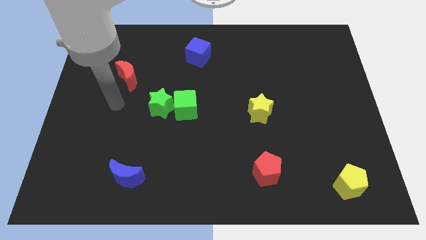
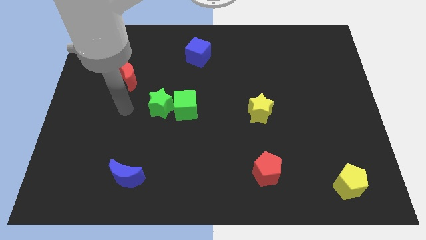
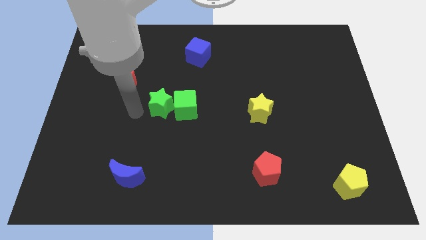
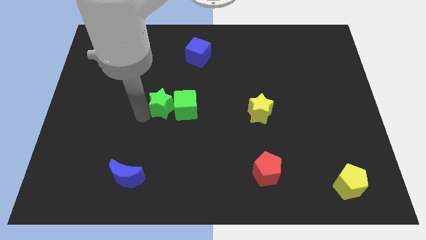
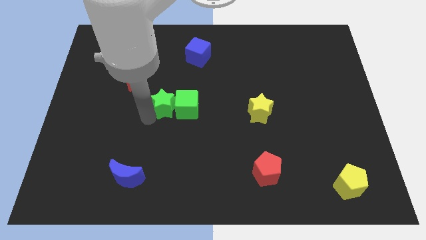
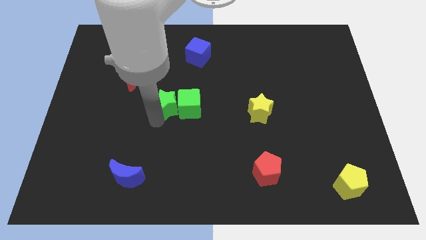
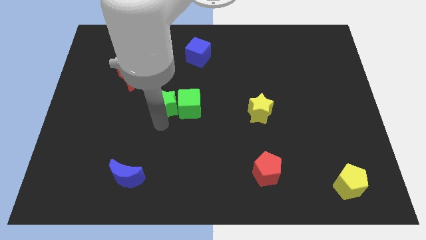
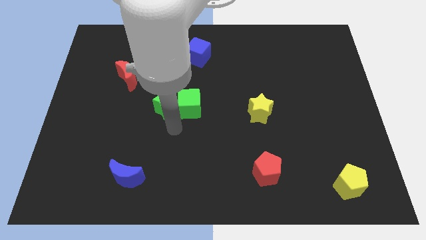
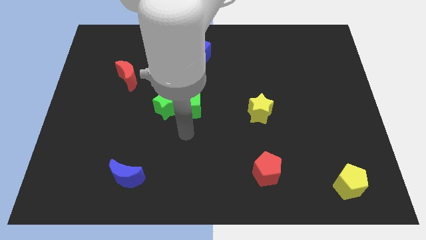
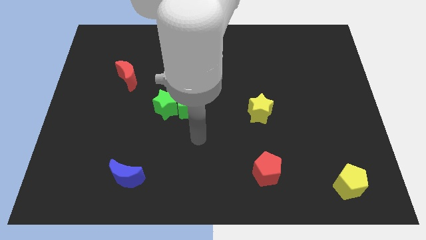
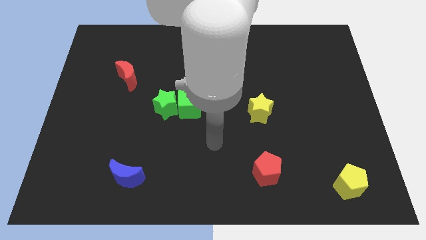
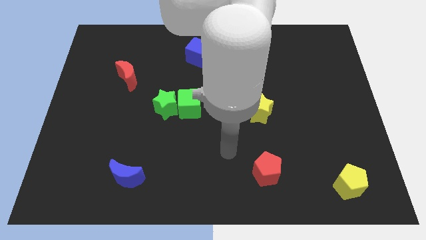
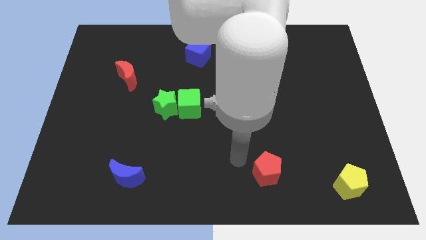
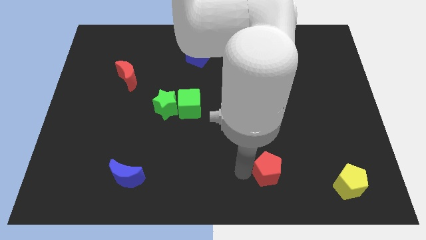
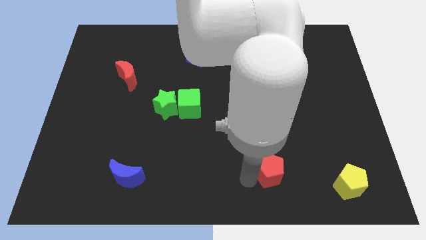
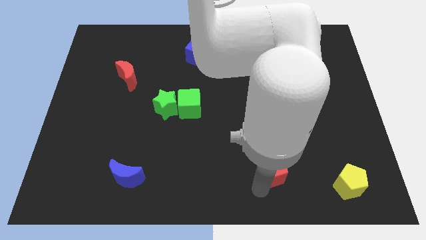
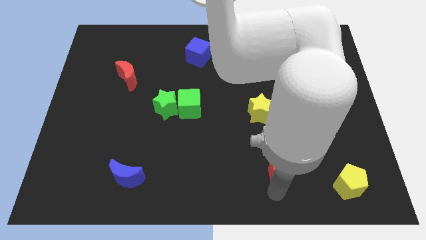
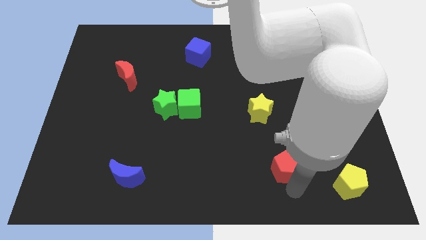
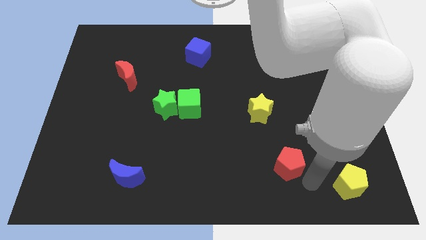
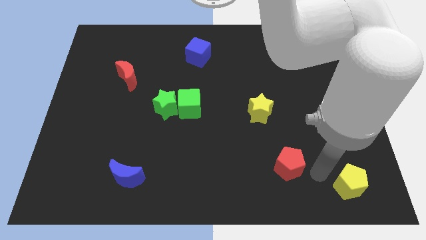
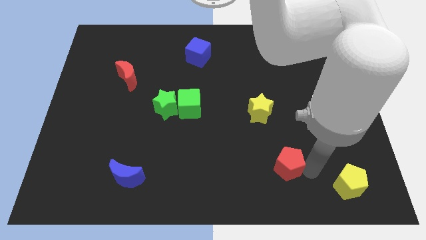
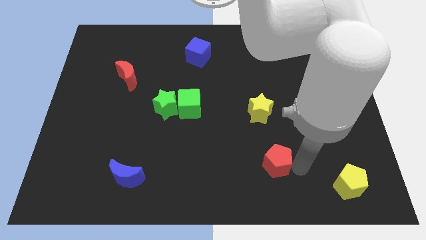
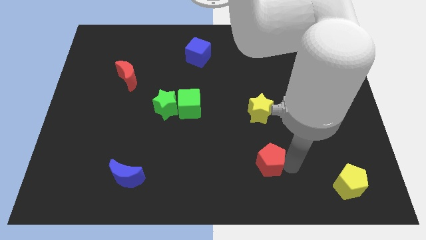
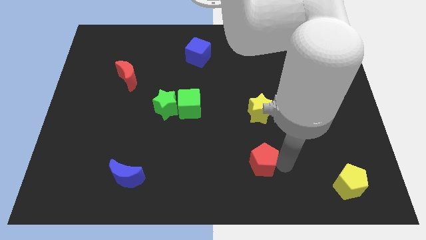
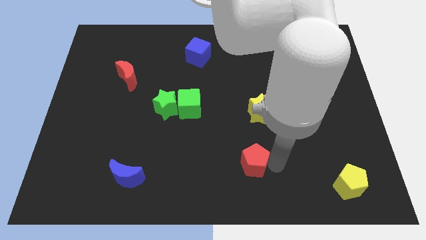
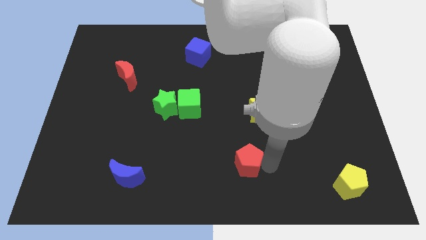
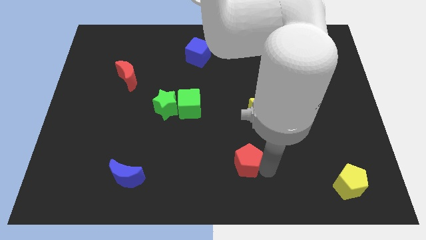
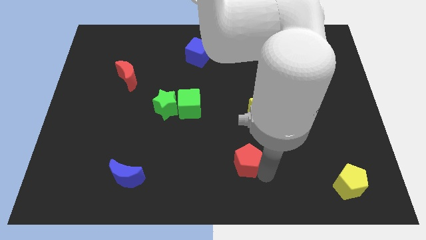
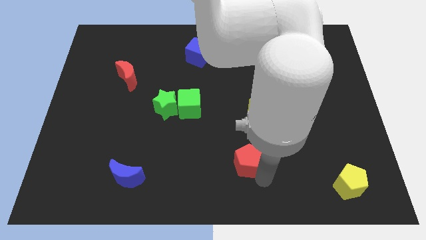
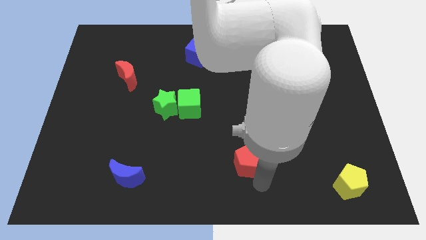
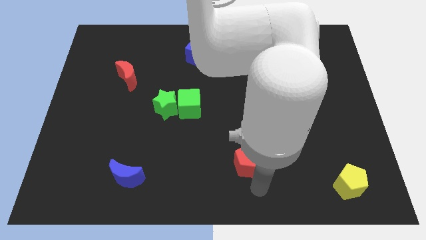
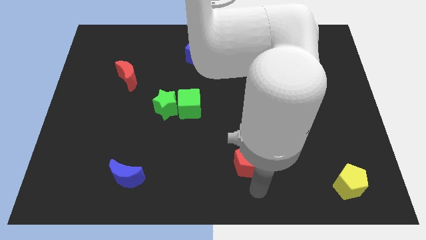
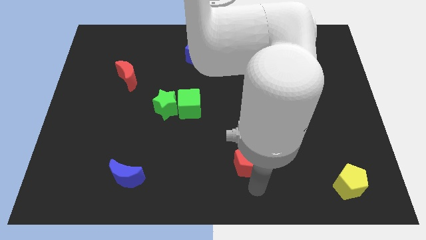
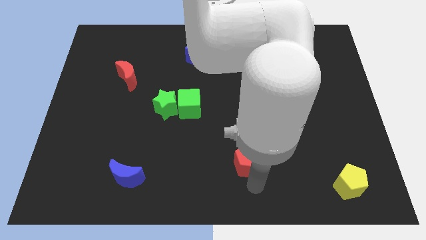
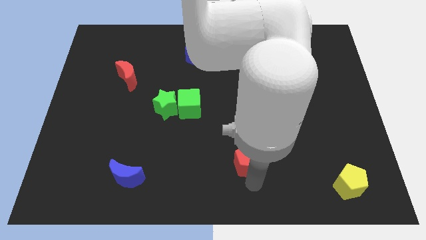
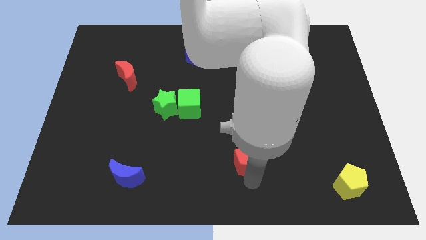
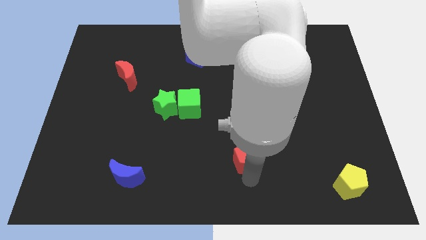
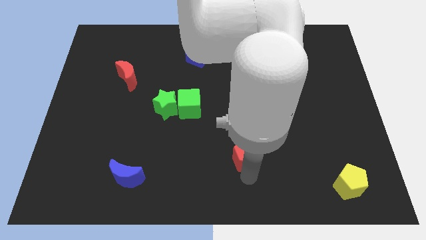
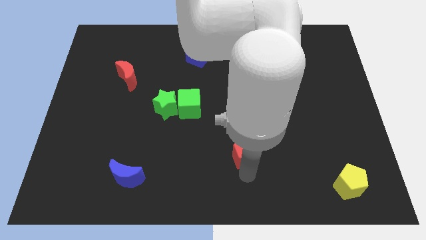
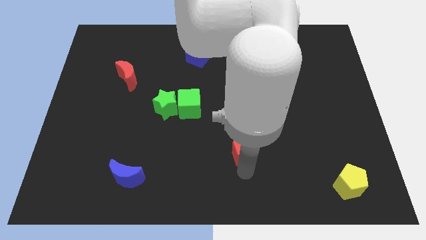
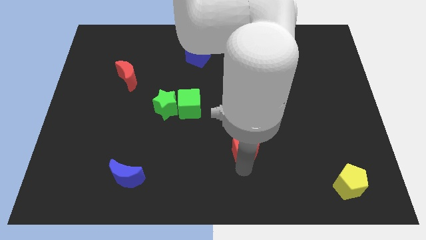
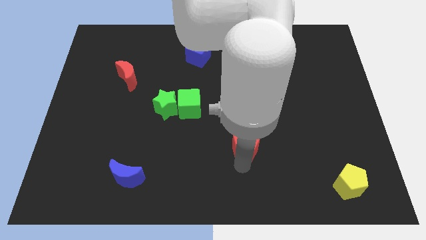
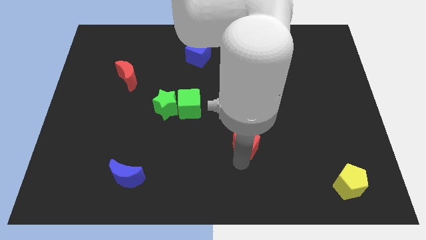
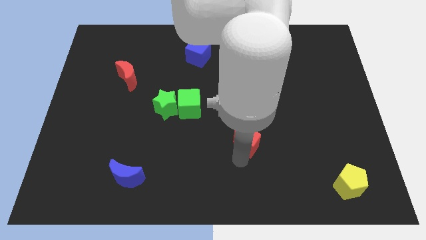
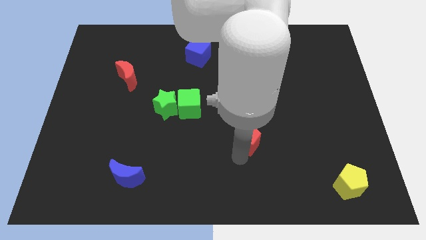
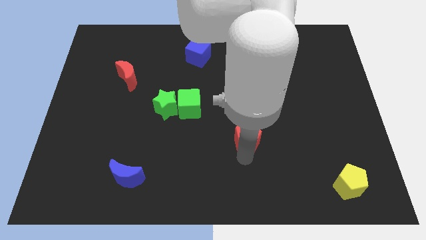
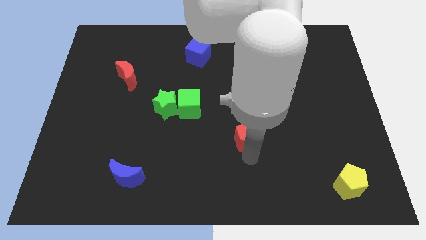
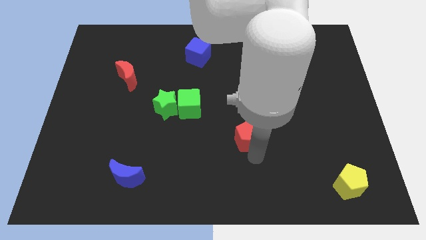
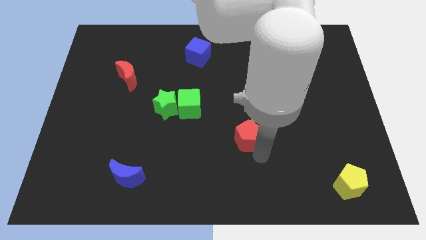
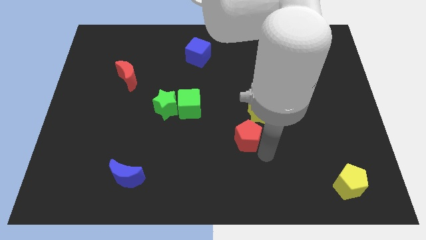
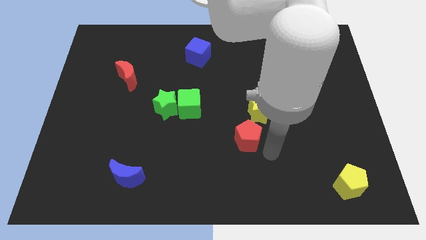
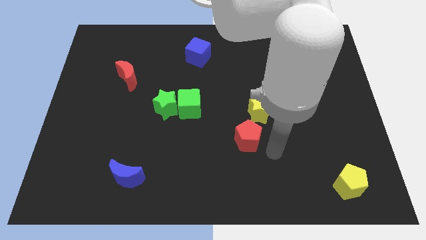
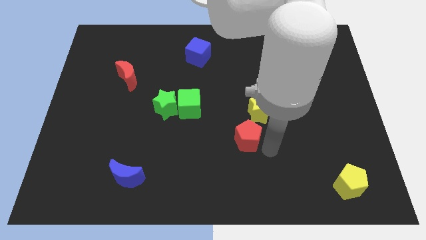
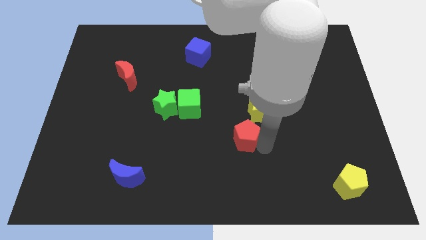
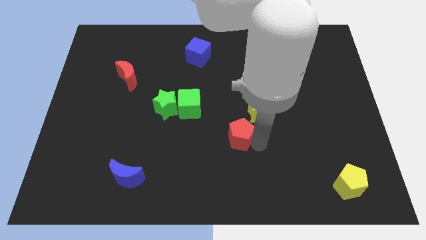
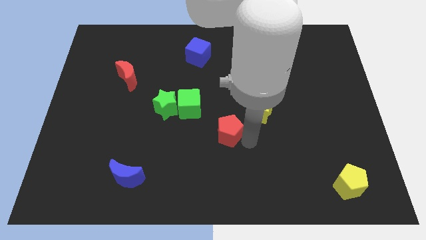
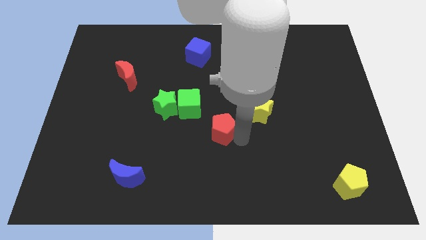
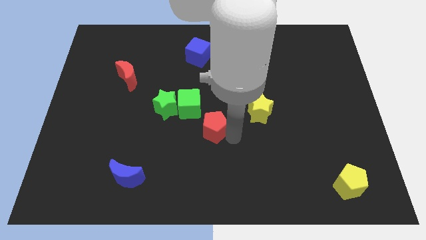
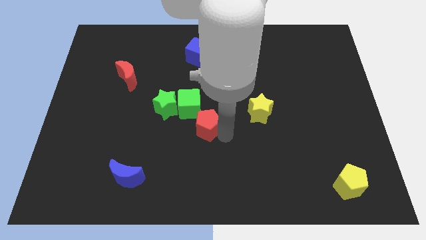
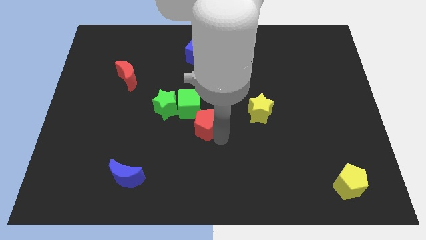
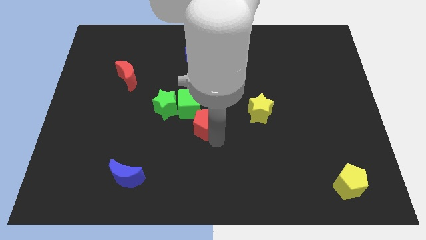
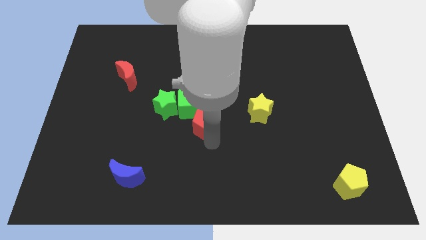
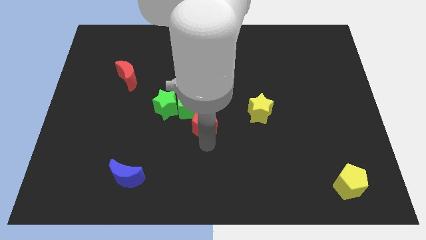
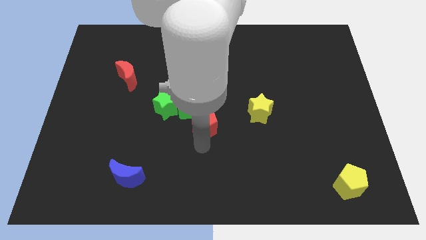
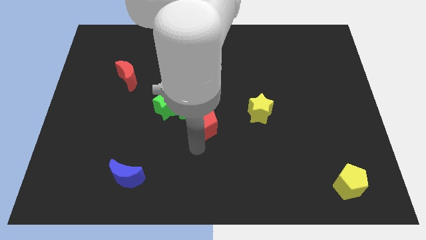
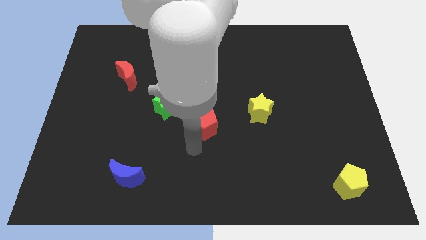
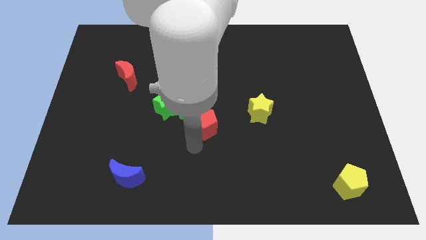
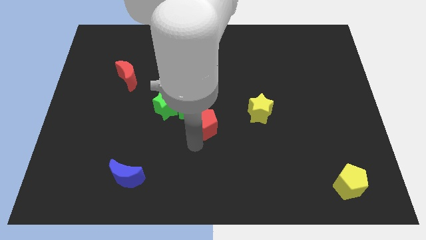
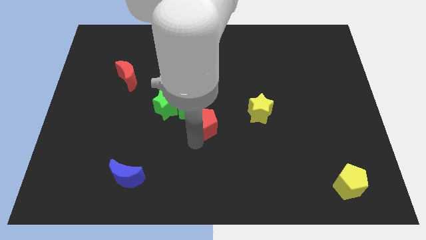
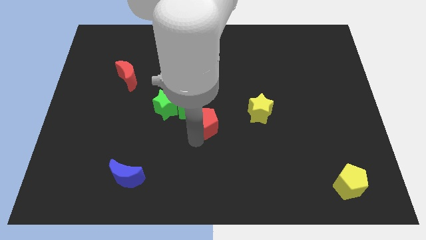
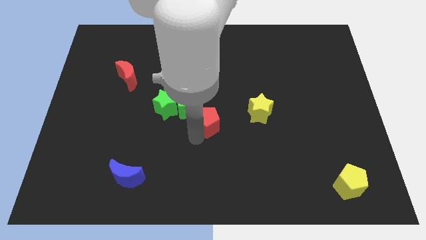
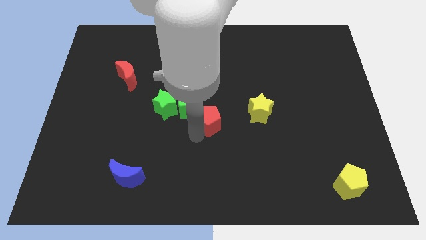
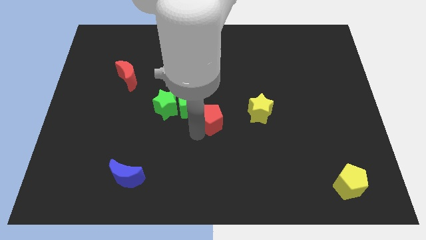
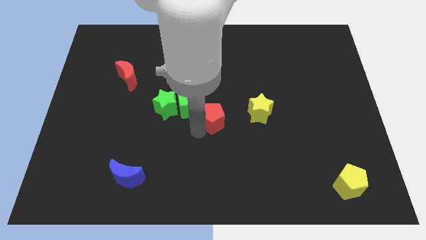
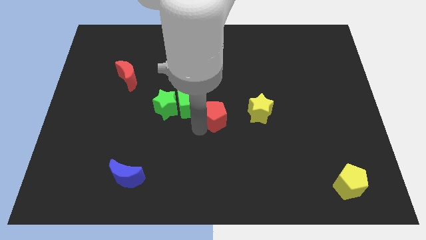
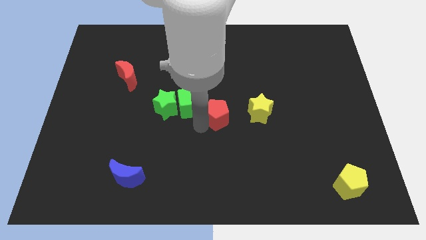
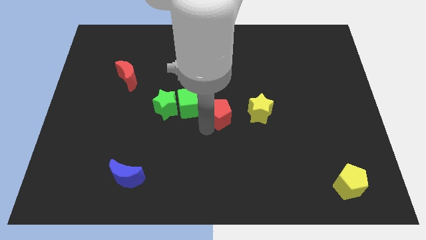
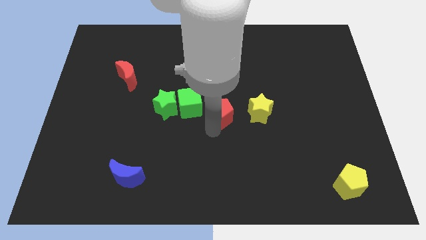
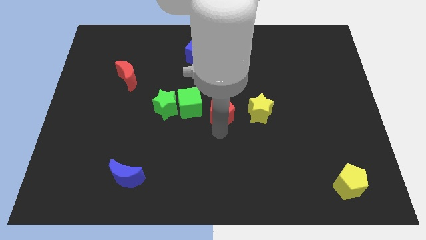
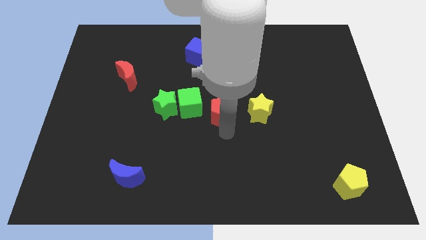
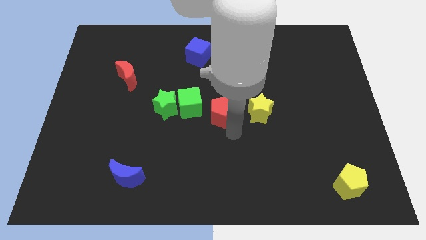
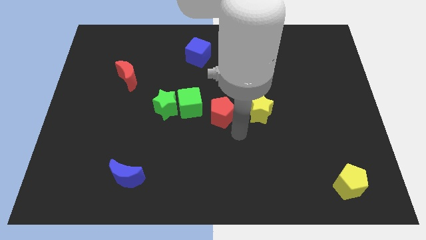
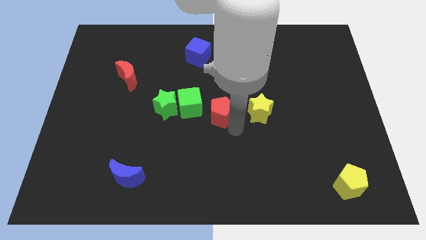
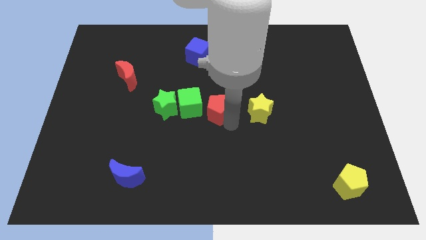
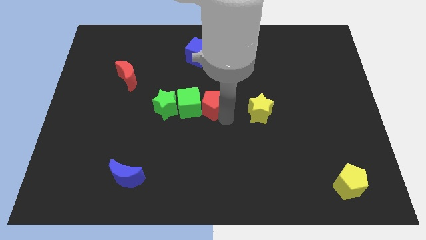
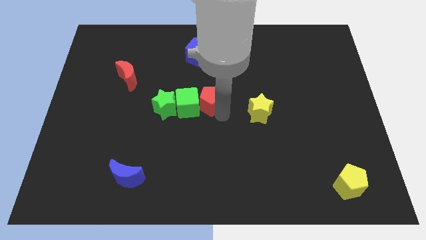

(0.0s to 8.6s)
move the red pentagon up and to the left
